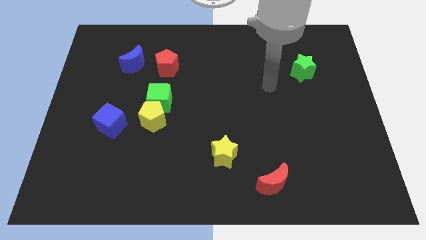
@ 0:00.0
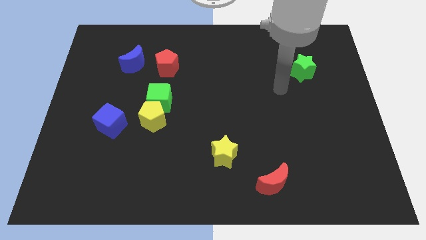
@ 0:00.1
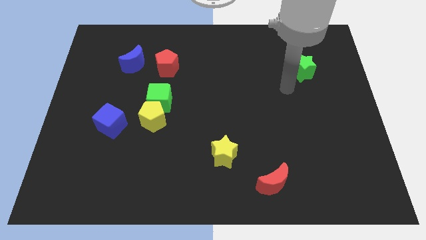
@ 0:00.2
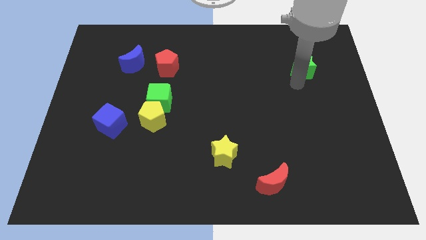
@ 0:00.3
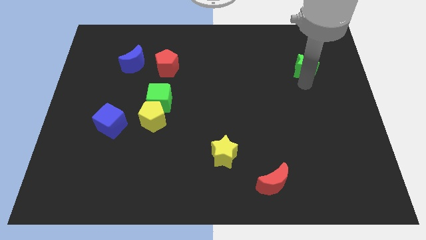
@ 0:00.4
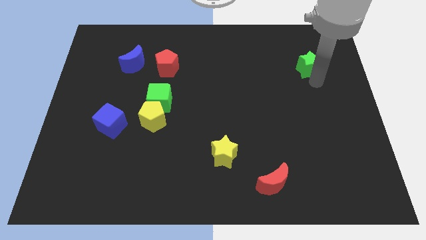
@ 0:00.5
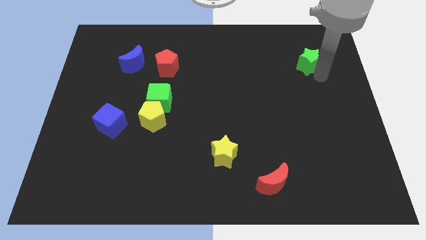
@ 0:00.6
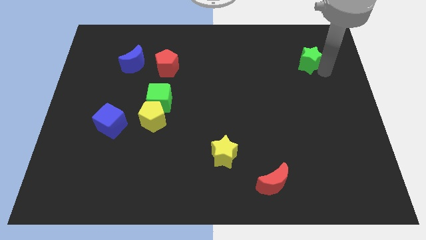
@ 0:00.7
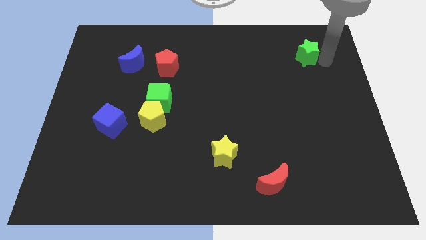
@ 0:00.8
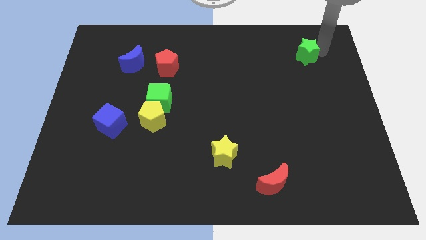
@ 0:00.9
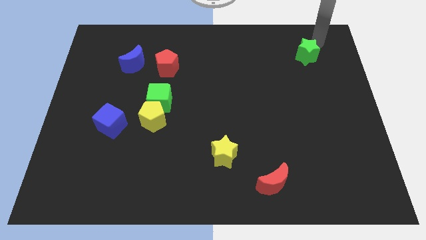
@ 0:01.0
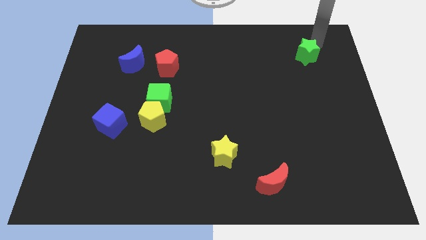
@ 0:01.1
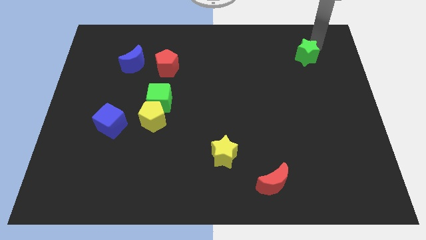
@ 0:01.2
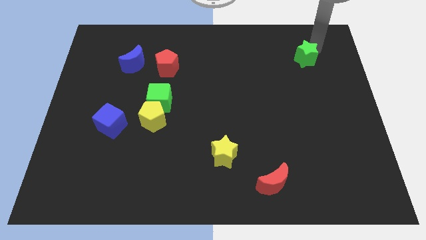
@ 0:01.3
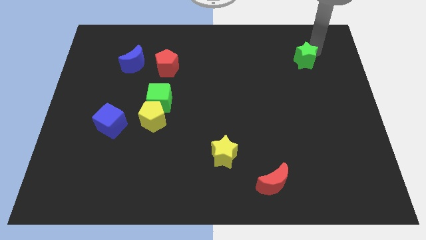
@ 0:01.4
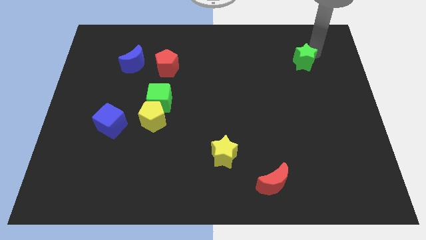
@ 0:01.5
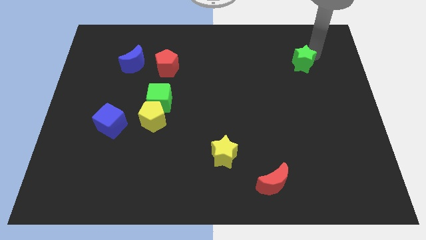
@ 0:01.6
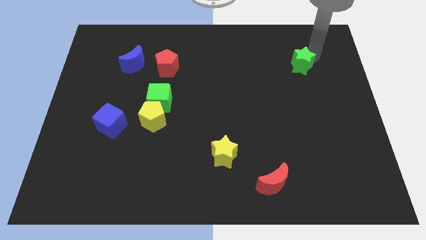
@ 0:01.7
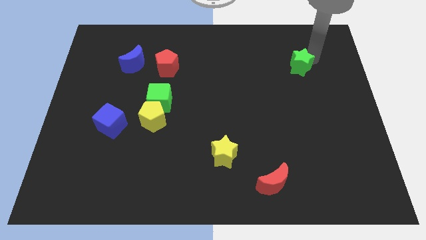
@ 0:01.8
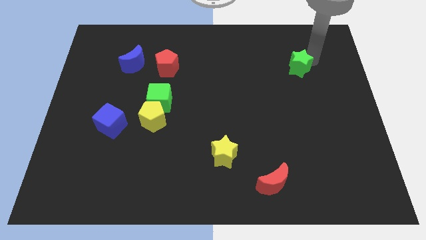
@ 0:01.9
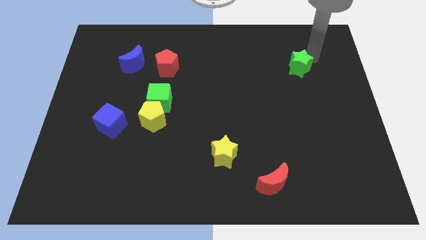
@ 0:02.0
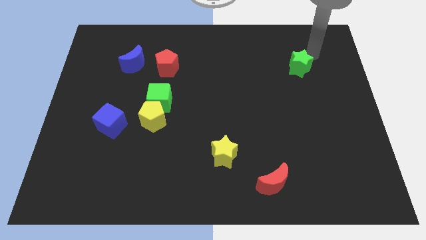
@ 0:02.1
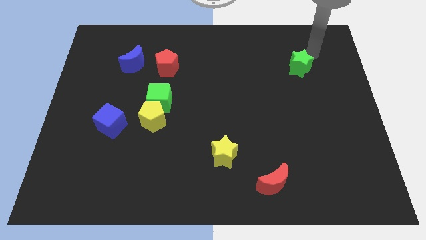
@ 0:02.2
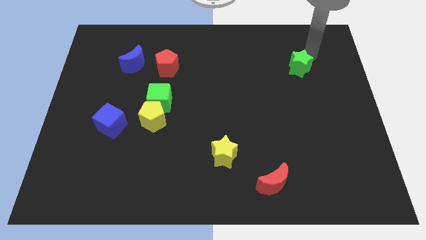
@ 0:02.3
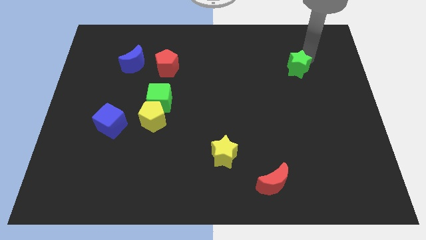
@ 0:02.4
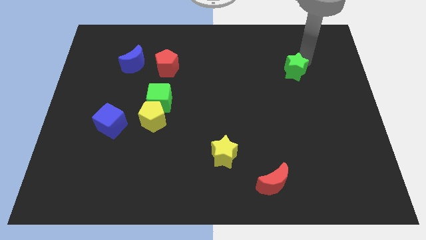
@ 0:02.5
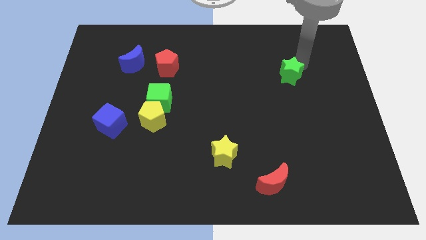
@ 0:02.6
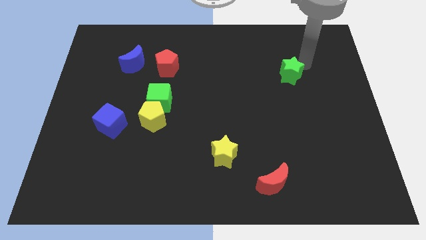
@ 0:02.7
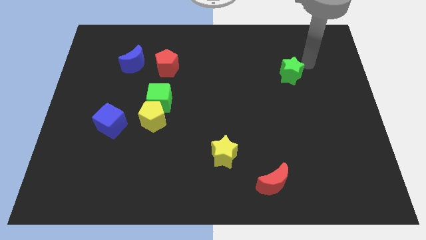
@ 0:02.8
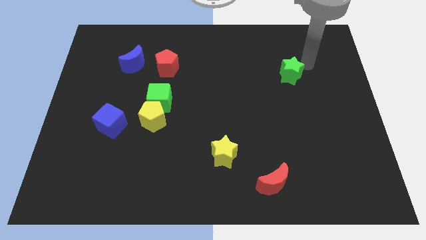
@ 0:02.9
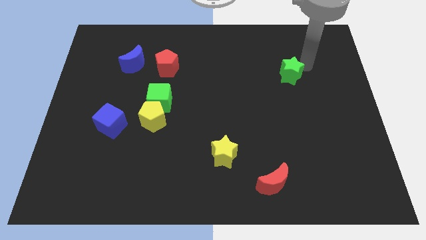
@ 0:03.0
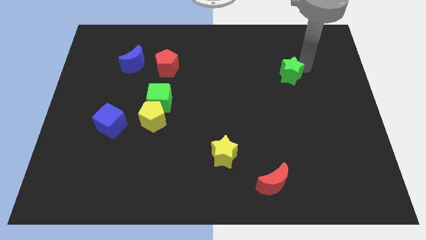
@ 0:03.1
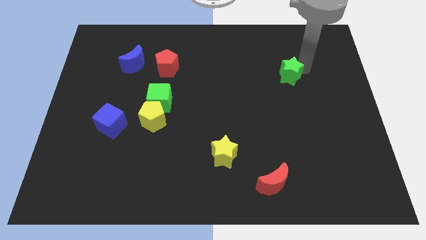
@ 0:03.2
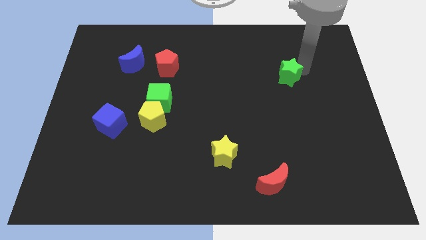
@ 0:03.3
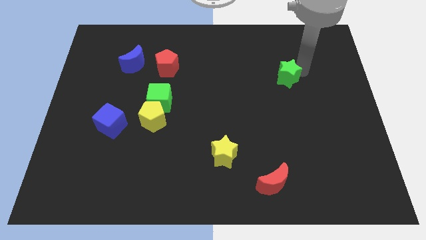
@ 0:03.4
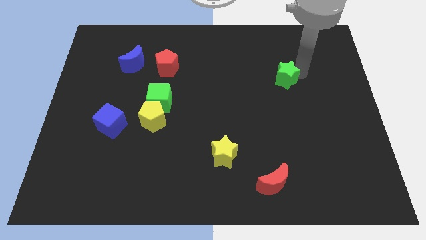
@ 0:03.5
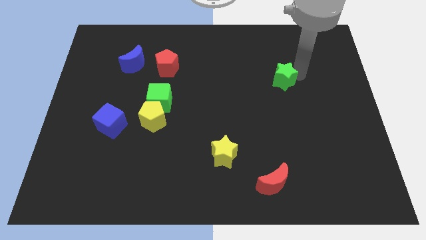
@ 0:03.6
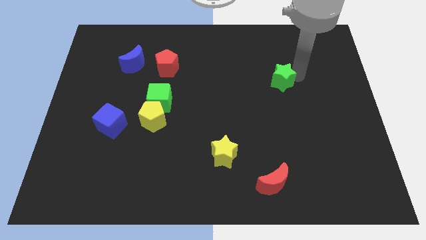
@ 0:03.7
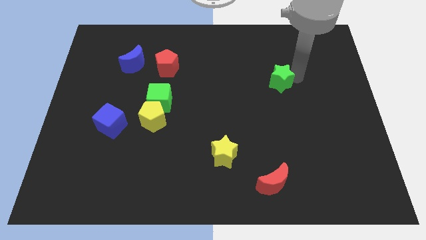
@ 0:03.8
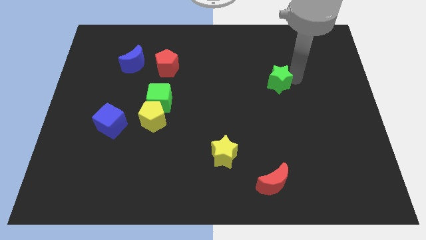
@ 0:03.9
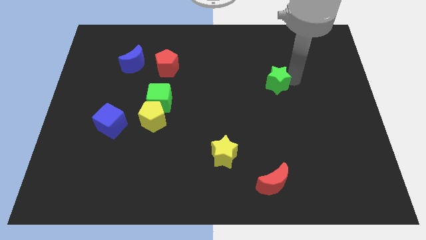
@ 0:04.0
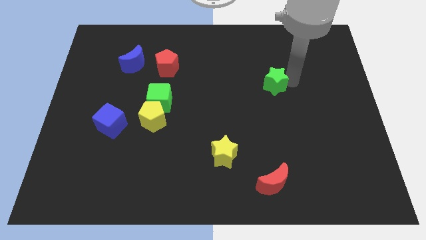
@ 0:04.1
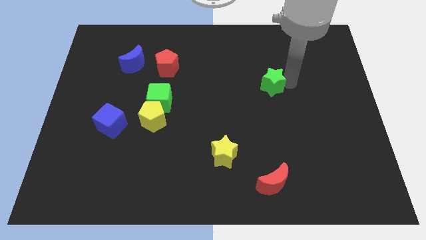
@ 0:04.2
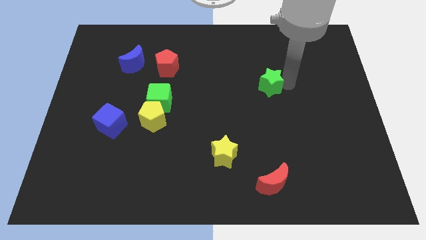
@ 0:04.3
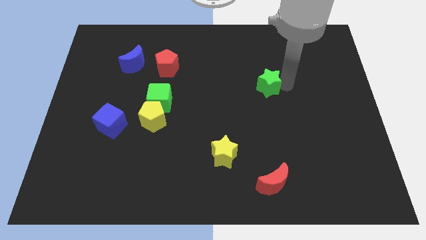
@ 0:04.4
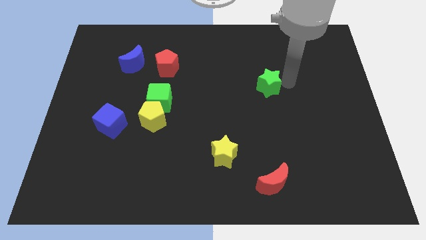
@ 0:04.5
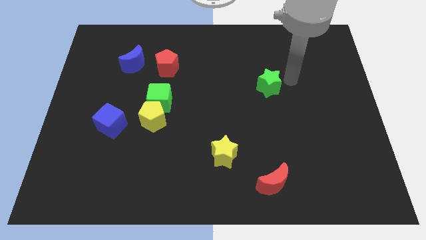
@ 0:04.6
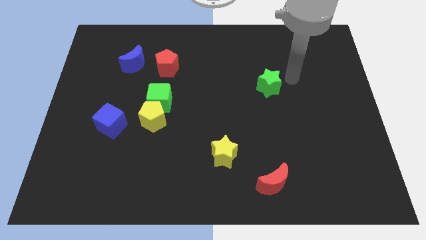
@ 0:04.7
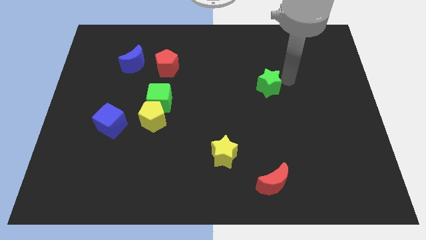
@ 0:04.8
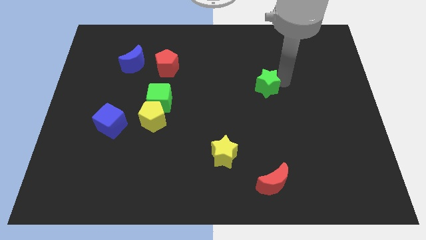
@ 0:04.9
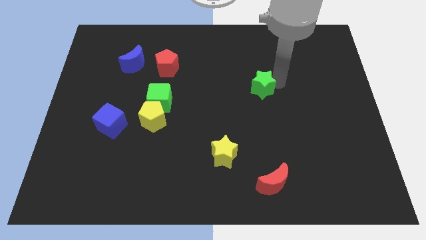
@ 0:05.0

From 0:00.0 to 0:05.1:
slide the green star to the center of the board

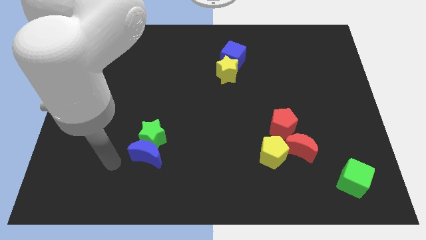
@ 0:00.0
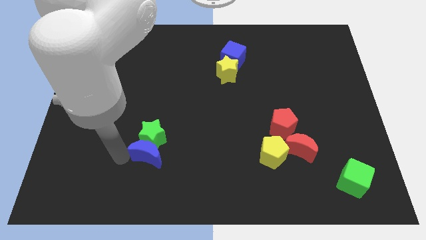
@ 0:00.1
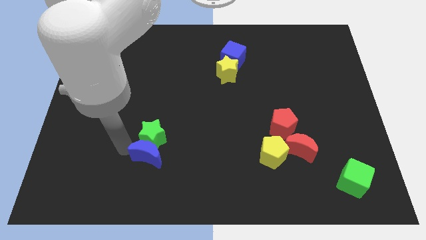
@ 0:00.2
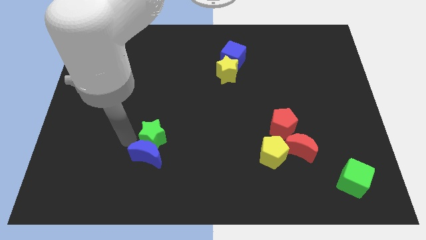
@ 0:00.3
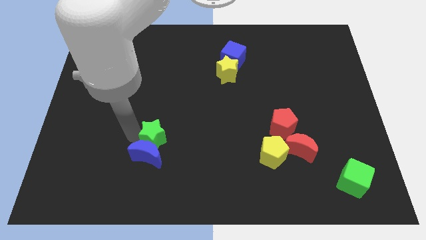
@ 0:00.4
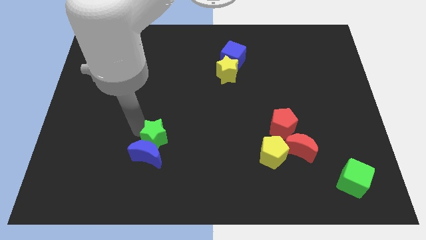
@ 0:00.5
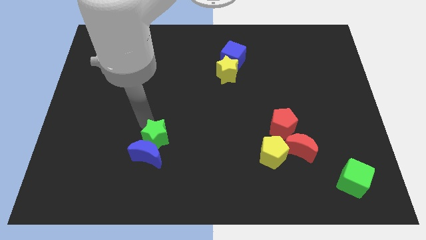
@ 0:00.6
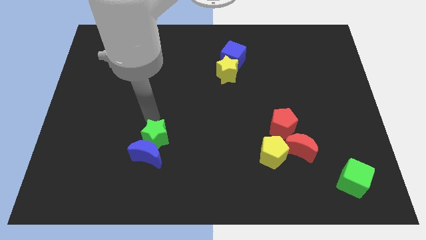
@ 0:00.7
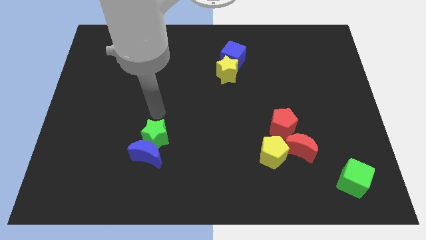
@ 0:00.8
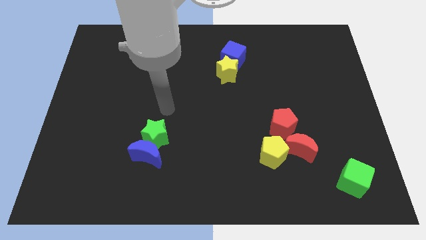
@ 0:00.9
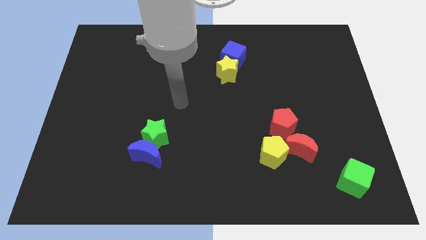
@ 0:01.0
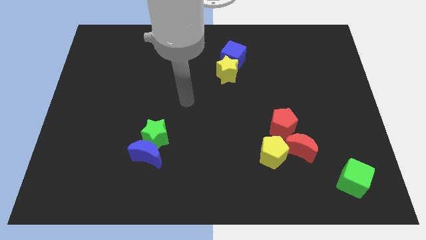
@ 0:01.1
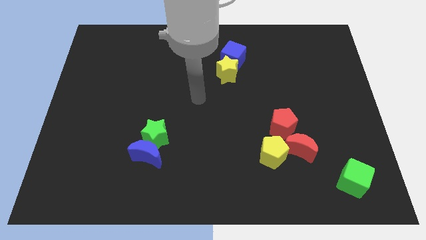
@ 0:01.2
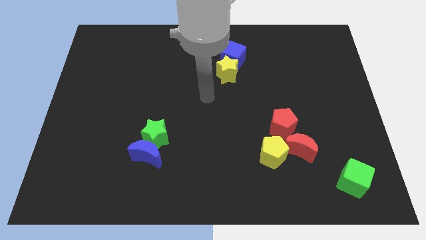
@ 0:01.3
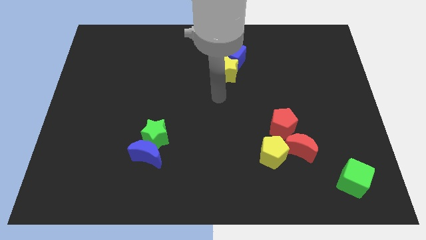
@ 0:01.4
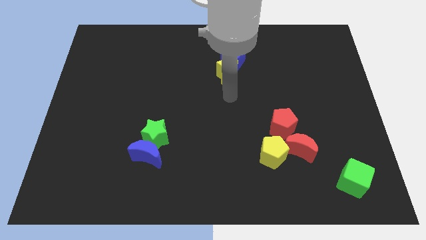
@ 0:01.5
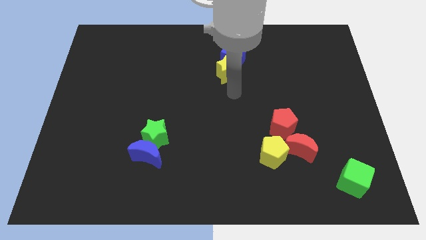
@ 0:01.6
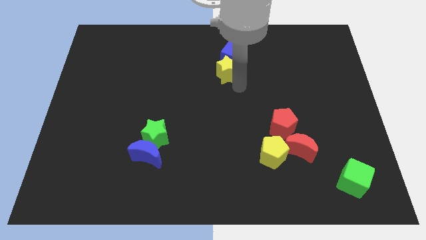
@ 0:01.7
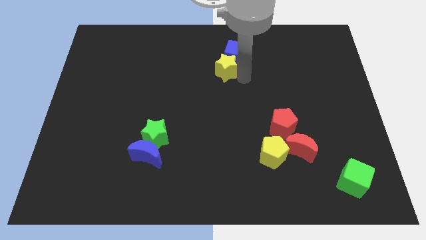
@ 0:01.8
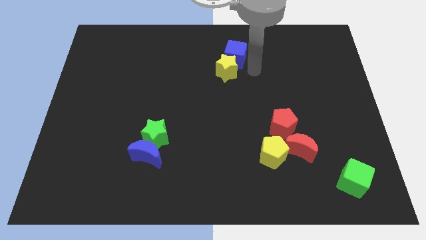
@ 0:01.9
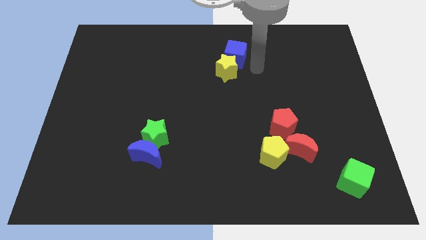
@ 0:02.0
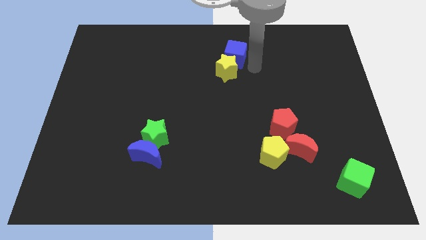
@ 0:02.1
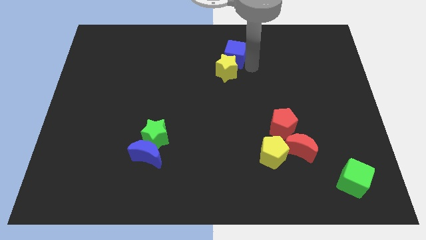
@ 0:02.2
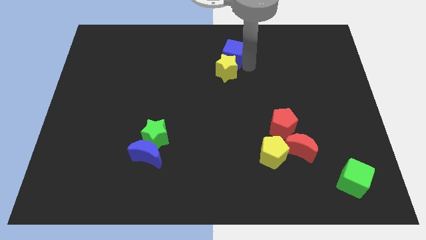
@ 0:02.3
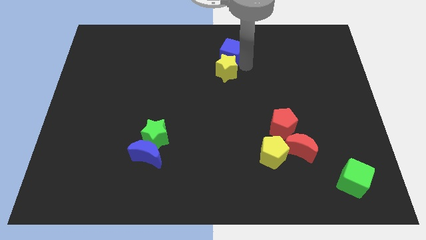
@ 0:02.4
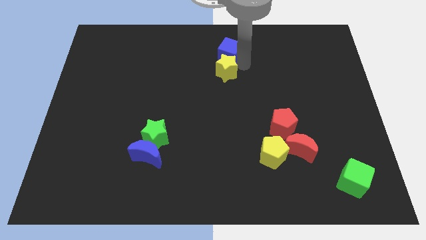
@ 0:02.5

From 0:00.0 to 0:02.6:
move the blue cube to the top side
